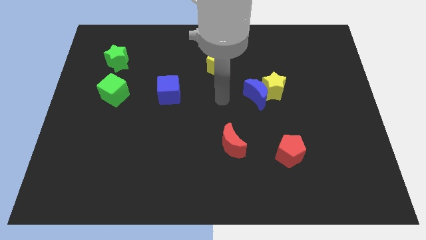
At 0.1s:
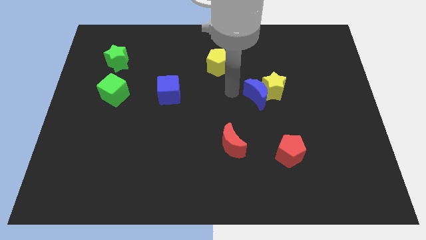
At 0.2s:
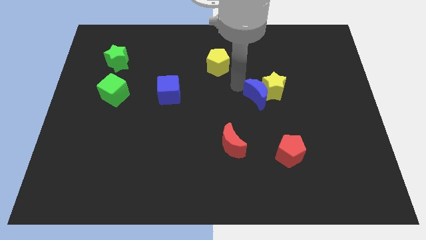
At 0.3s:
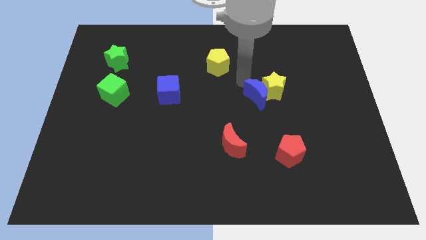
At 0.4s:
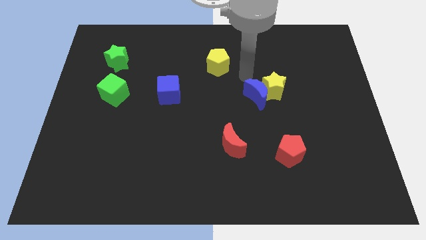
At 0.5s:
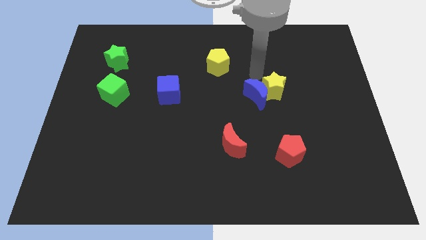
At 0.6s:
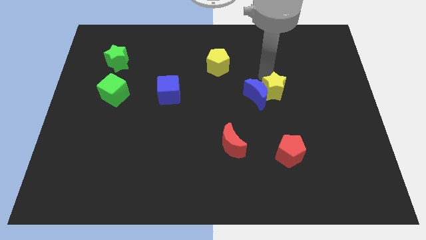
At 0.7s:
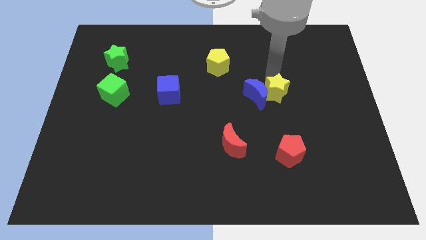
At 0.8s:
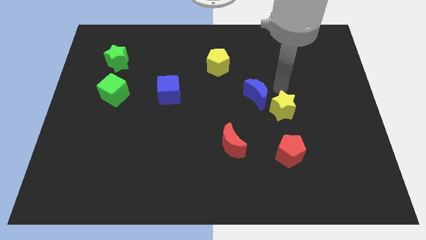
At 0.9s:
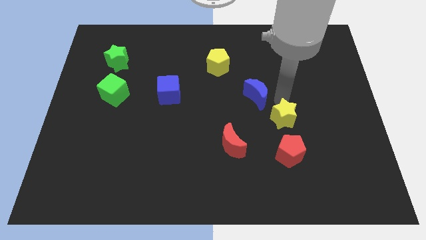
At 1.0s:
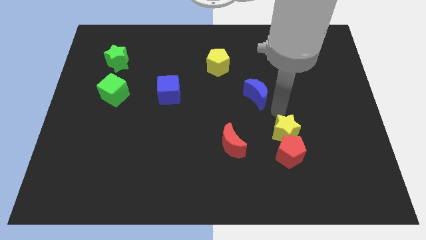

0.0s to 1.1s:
separate the blue moon from the yellow star

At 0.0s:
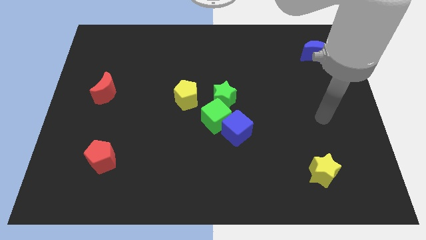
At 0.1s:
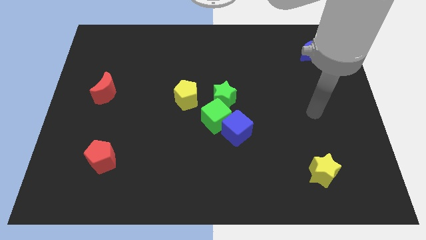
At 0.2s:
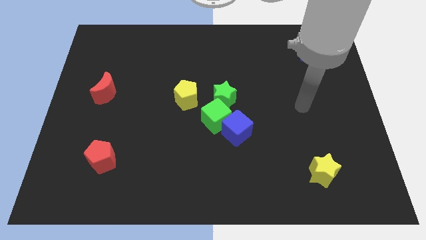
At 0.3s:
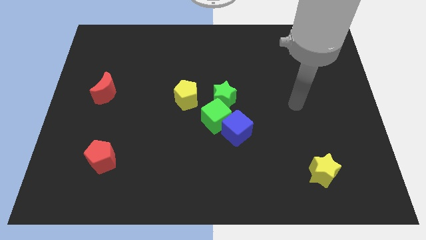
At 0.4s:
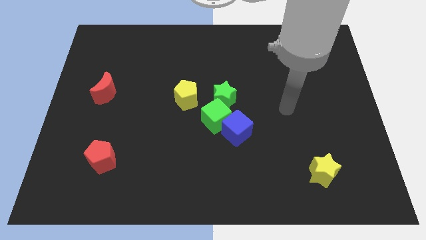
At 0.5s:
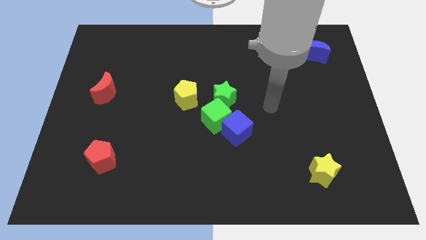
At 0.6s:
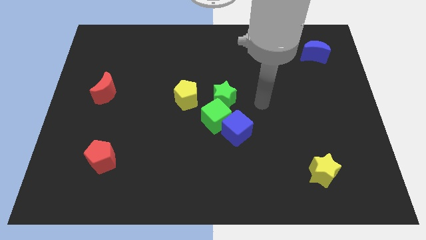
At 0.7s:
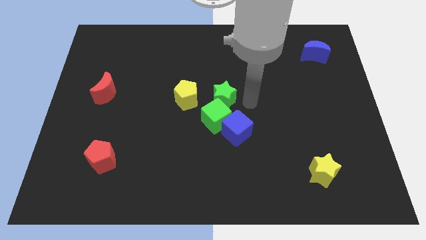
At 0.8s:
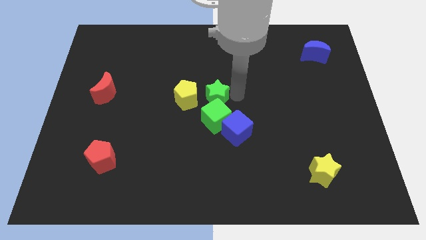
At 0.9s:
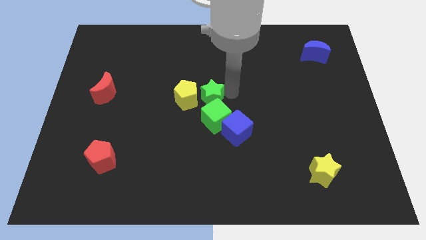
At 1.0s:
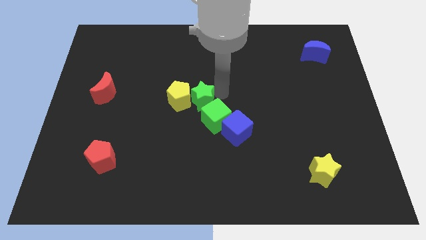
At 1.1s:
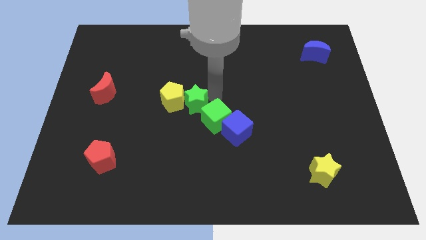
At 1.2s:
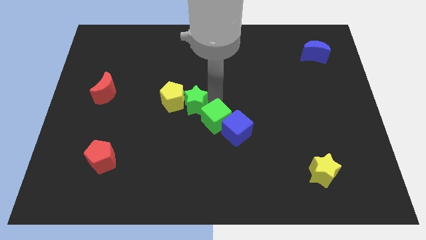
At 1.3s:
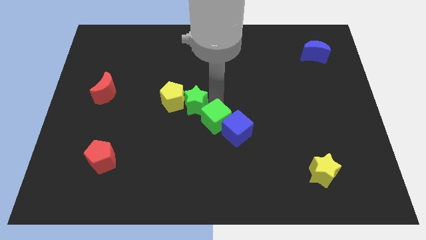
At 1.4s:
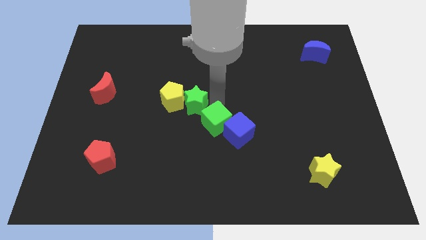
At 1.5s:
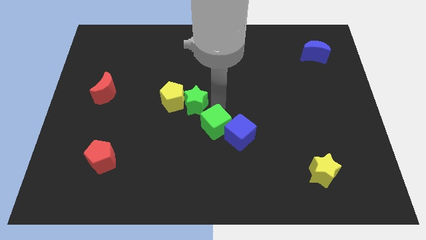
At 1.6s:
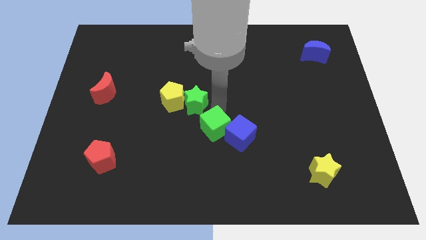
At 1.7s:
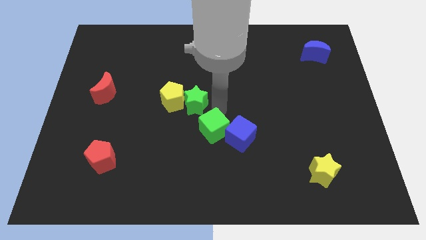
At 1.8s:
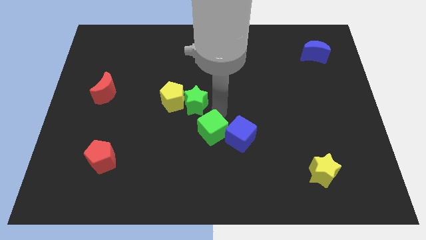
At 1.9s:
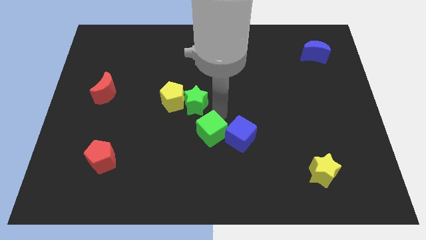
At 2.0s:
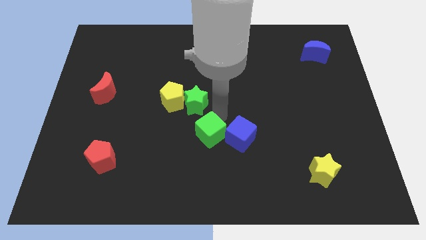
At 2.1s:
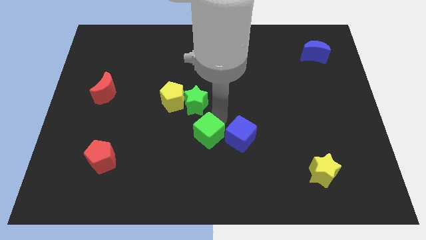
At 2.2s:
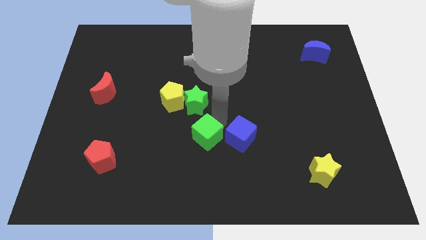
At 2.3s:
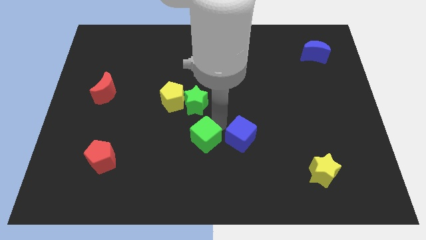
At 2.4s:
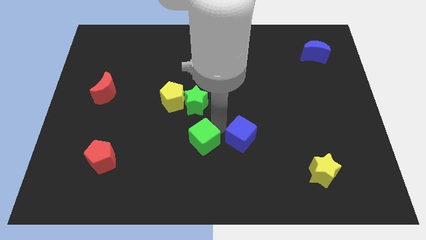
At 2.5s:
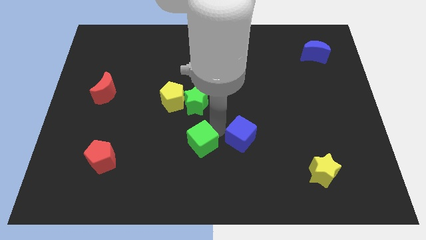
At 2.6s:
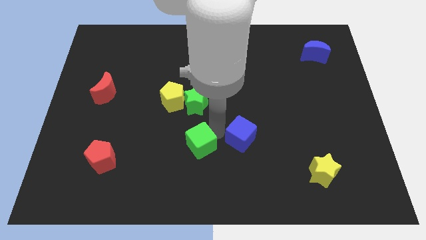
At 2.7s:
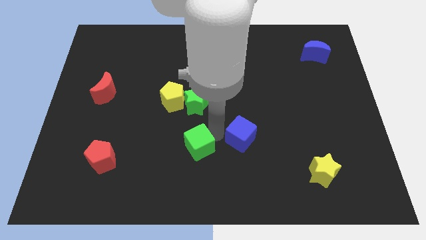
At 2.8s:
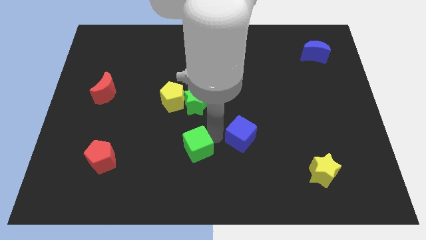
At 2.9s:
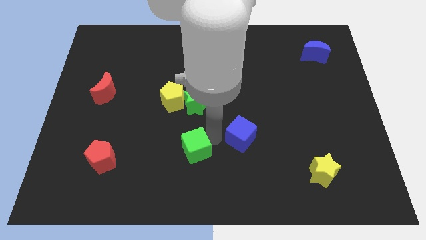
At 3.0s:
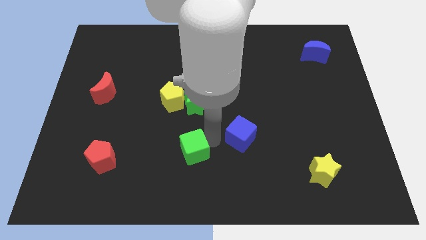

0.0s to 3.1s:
separate the green cube from the group of blocks

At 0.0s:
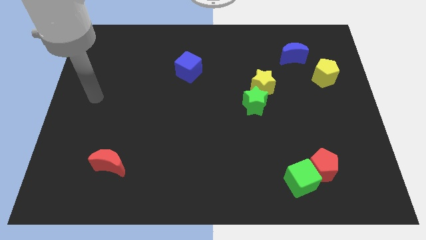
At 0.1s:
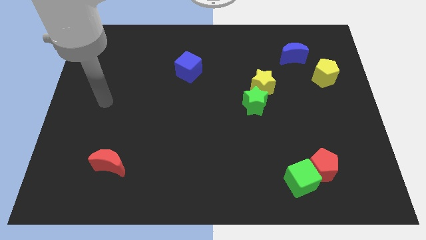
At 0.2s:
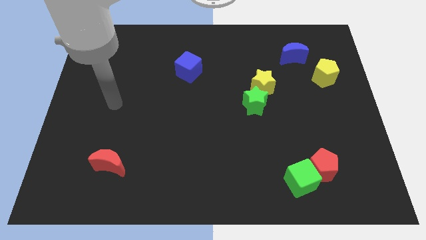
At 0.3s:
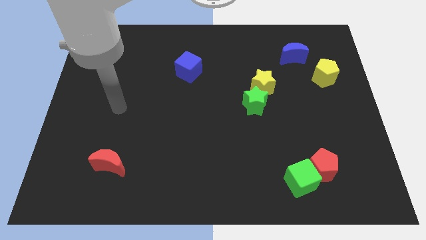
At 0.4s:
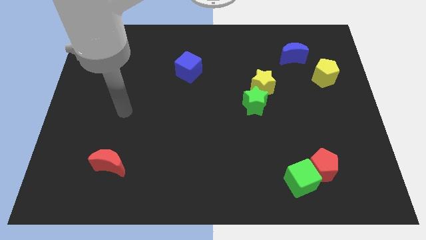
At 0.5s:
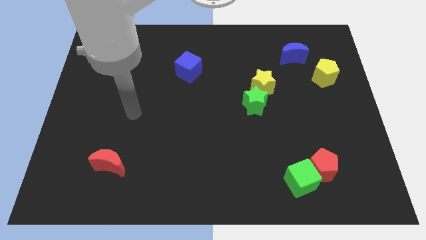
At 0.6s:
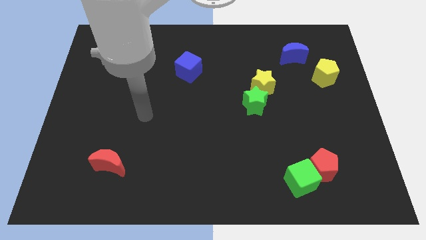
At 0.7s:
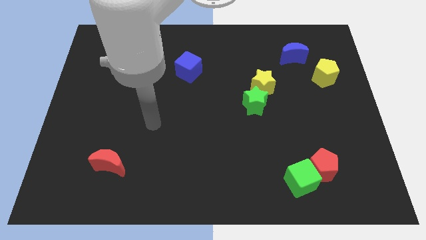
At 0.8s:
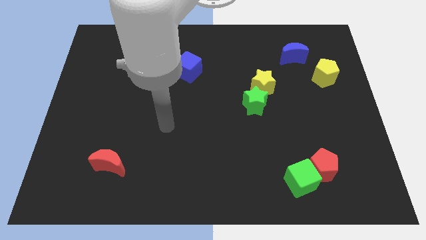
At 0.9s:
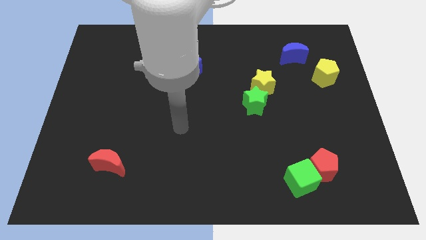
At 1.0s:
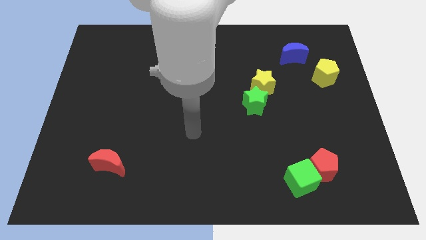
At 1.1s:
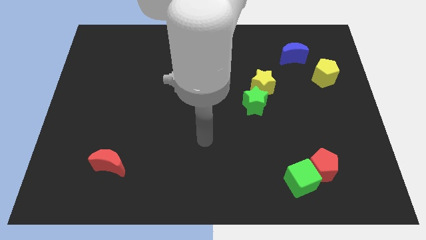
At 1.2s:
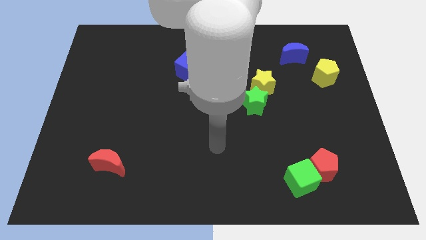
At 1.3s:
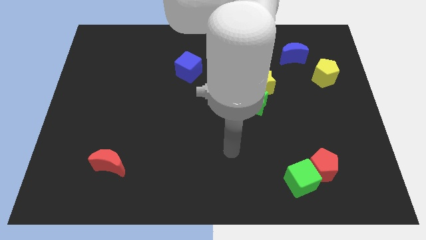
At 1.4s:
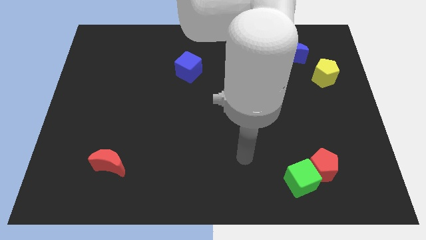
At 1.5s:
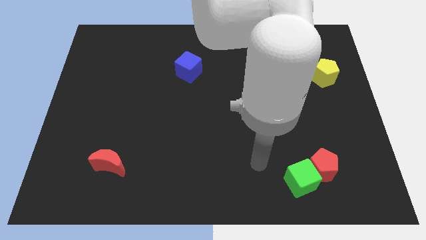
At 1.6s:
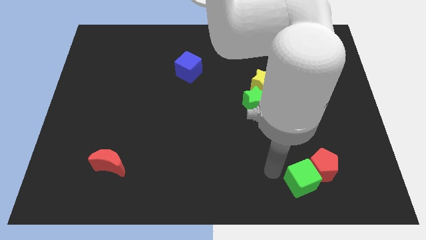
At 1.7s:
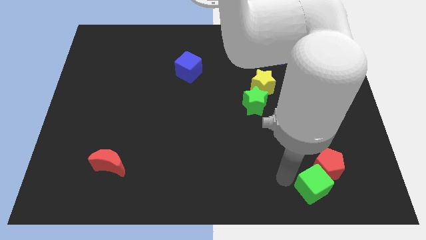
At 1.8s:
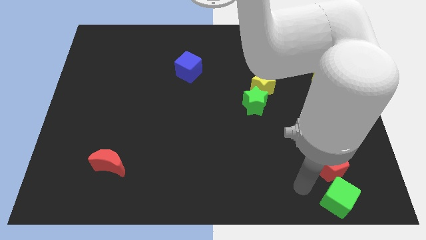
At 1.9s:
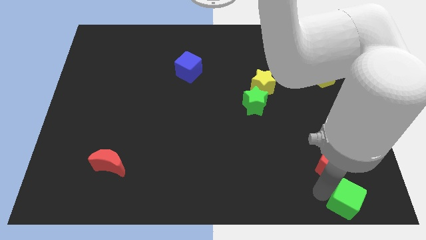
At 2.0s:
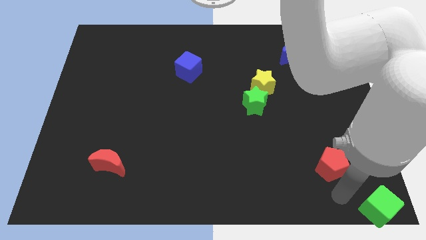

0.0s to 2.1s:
move the red pentagon away from the green cube

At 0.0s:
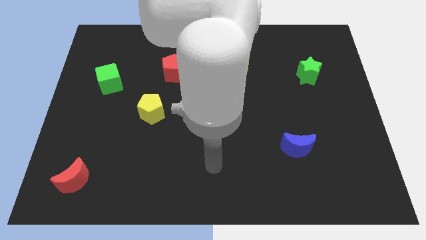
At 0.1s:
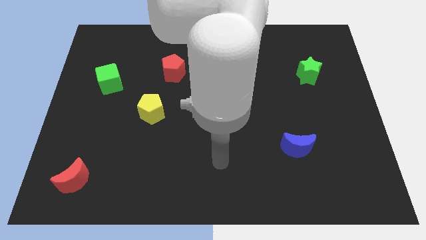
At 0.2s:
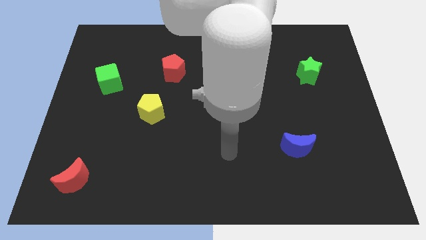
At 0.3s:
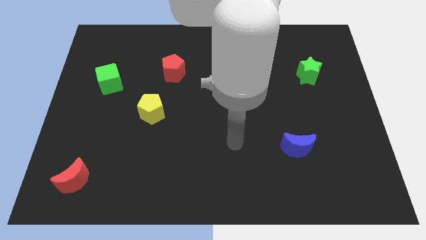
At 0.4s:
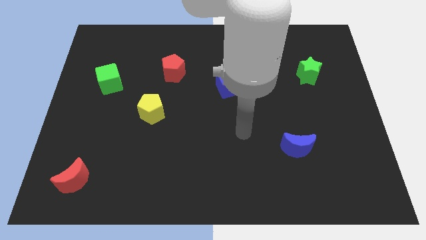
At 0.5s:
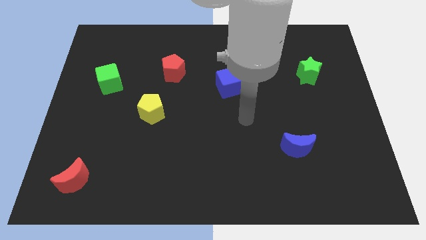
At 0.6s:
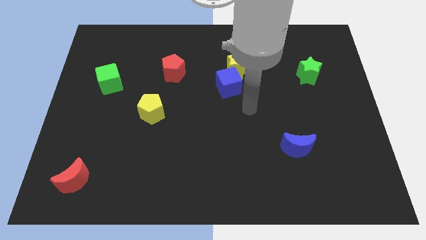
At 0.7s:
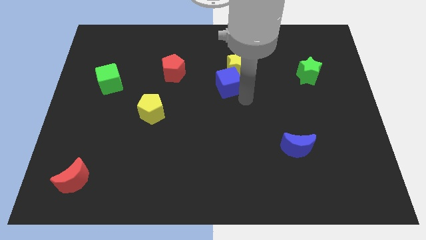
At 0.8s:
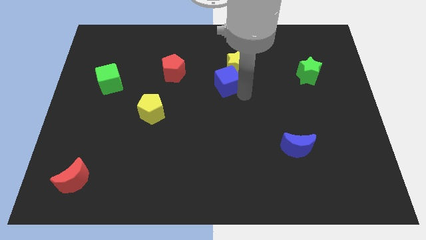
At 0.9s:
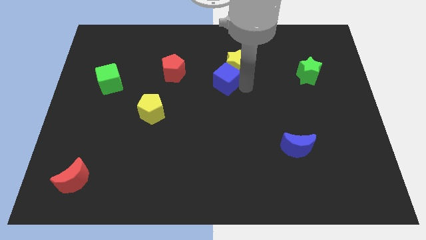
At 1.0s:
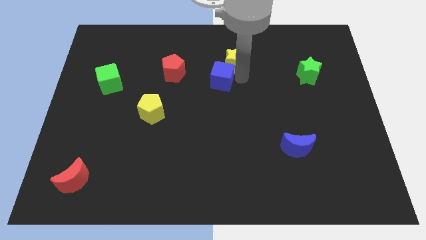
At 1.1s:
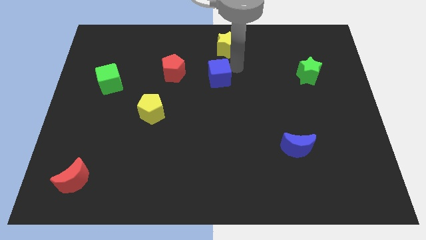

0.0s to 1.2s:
move the blue cube away from the yellow star

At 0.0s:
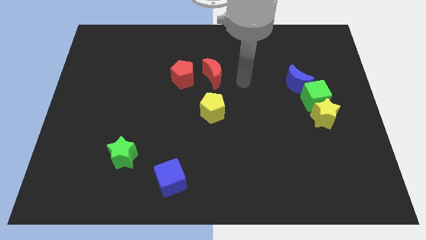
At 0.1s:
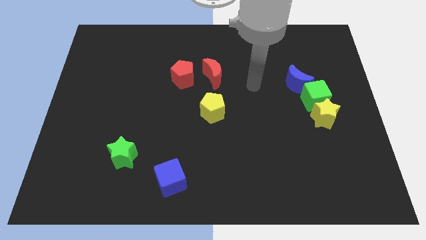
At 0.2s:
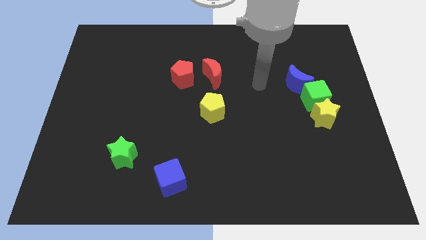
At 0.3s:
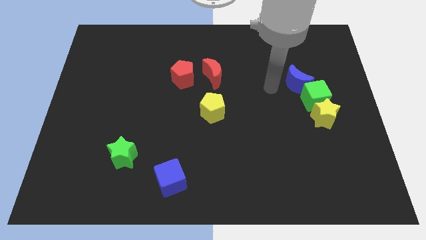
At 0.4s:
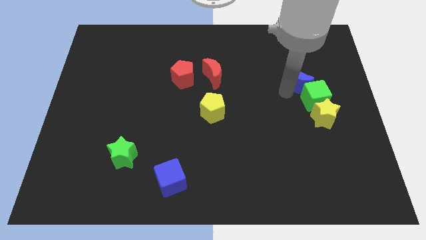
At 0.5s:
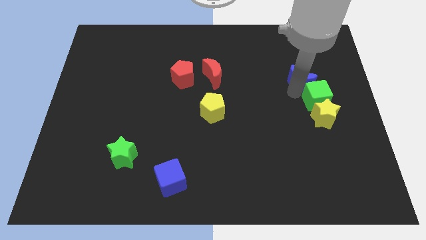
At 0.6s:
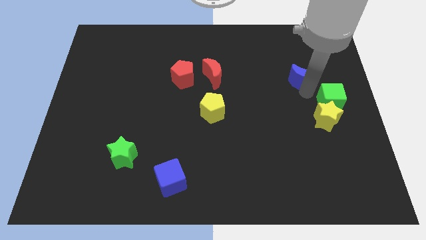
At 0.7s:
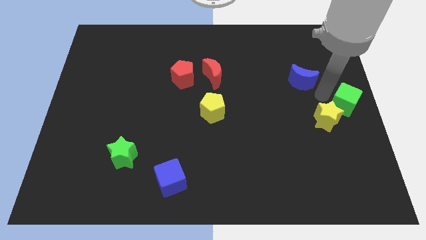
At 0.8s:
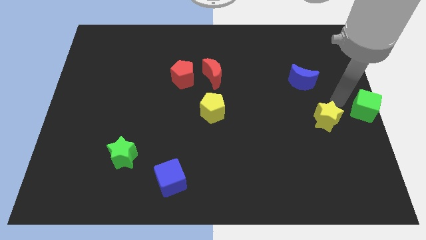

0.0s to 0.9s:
pull the yellow star apart from the green cube

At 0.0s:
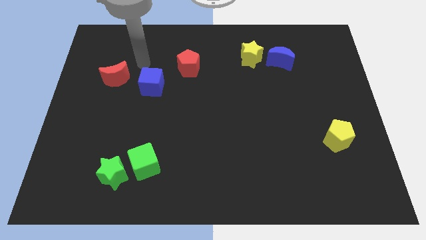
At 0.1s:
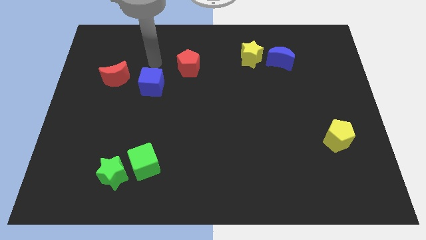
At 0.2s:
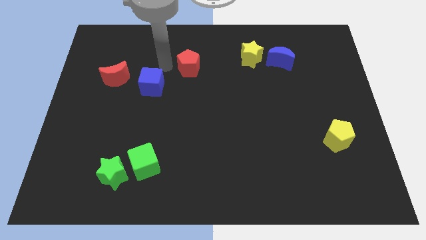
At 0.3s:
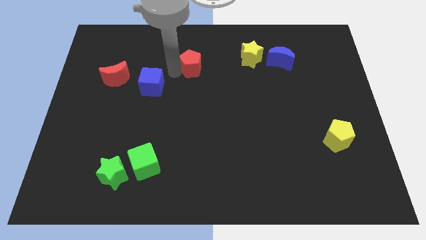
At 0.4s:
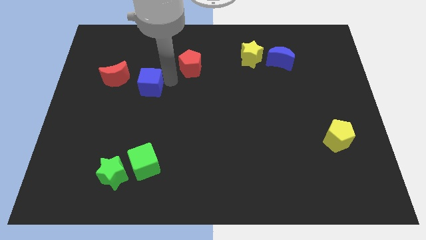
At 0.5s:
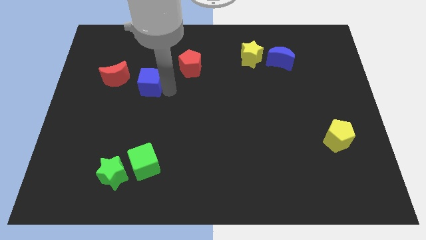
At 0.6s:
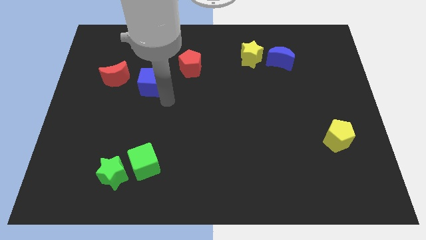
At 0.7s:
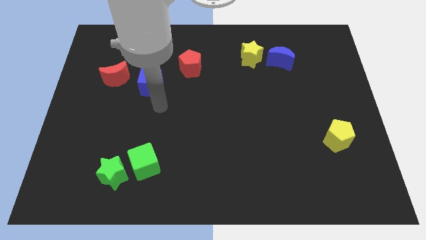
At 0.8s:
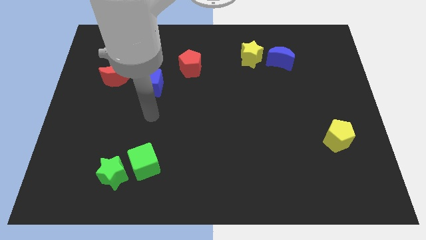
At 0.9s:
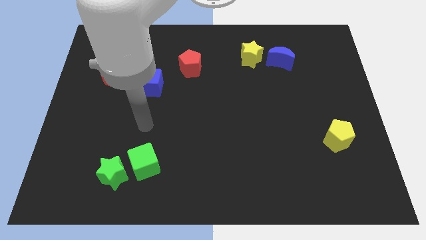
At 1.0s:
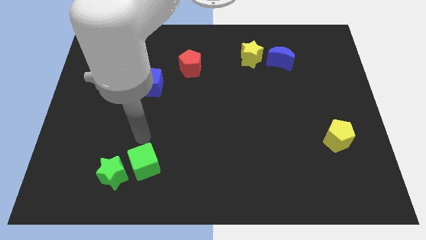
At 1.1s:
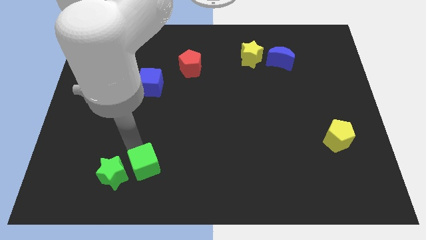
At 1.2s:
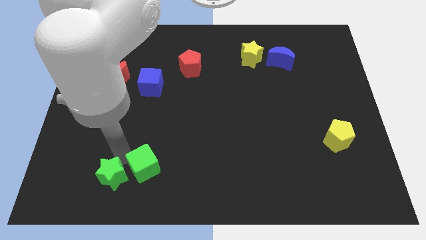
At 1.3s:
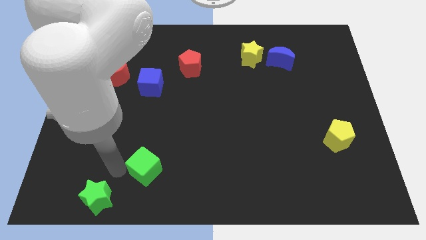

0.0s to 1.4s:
separate the green cube from the green star
